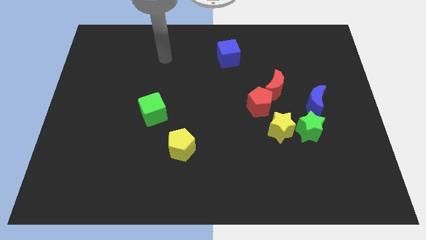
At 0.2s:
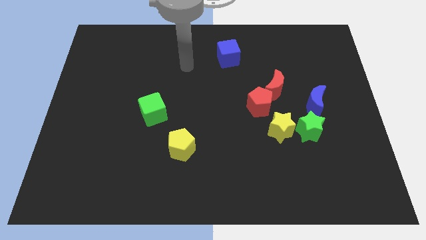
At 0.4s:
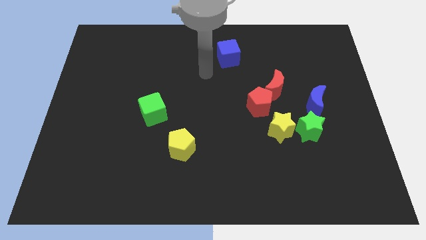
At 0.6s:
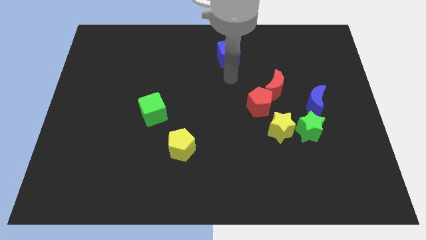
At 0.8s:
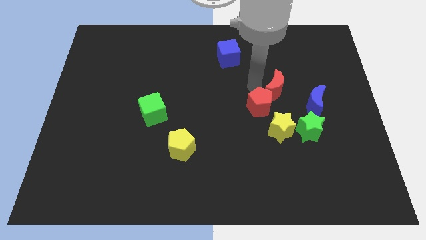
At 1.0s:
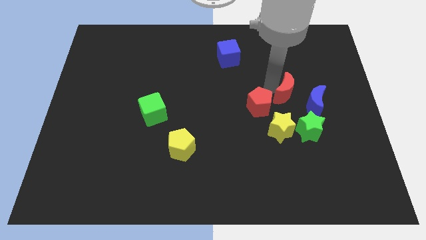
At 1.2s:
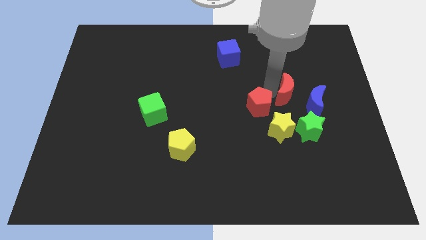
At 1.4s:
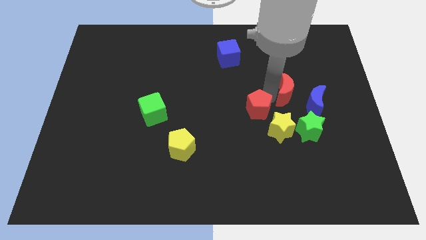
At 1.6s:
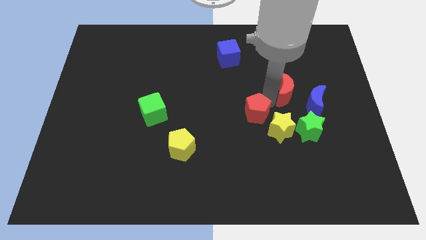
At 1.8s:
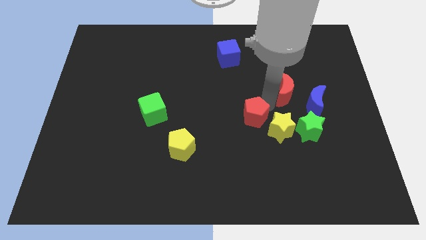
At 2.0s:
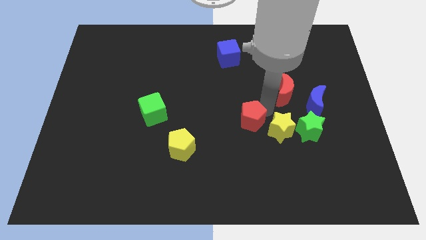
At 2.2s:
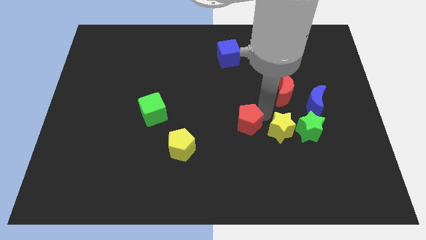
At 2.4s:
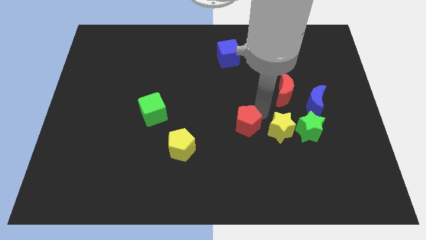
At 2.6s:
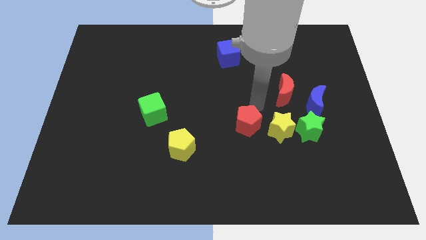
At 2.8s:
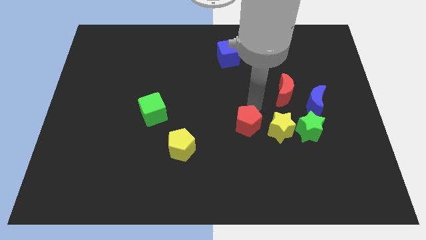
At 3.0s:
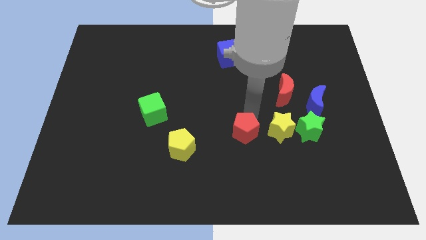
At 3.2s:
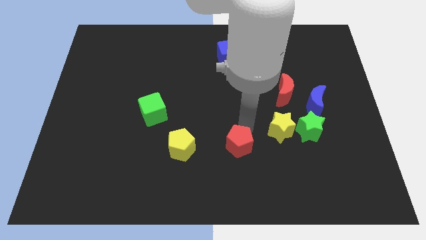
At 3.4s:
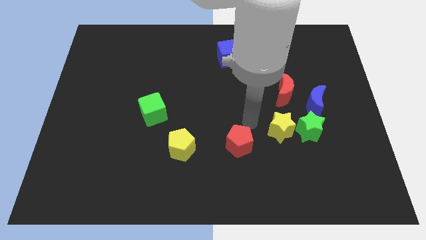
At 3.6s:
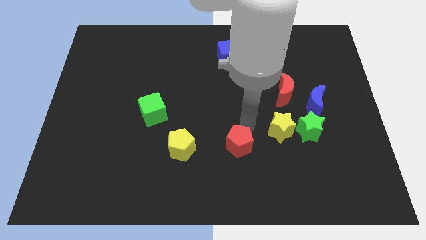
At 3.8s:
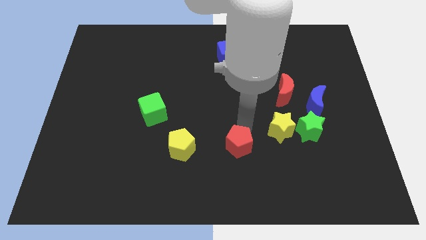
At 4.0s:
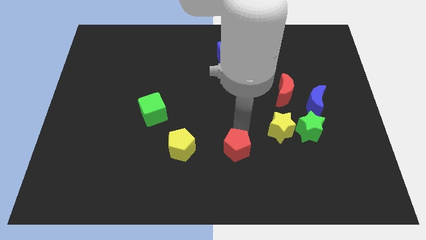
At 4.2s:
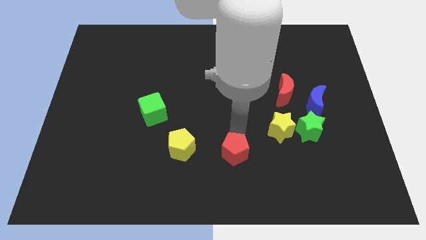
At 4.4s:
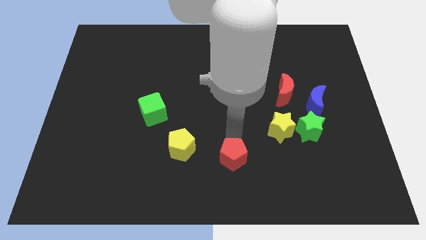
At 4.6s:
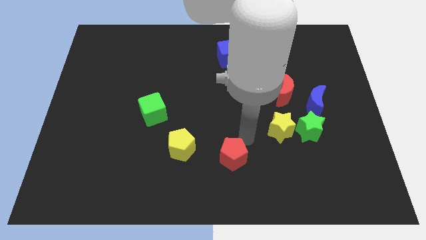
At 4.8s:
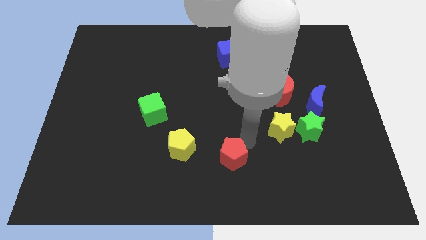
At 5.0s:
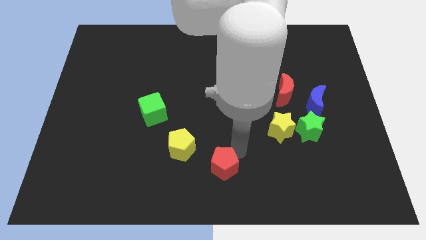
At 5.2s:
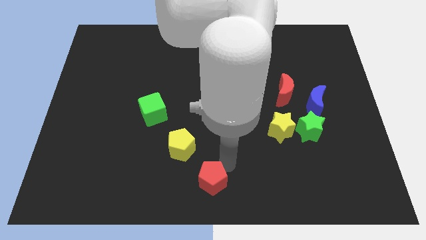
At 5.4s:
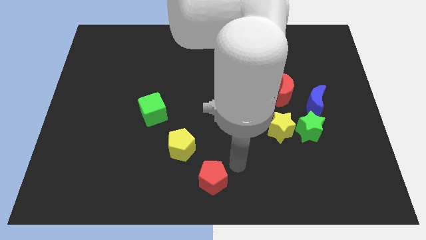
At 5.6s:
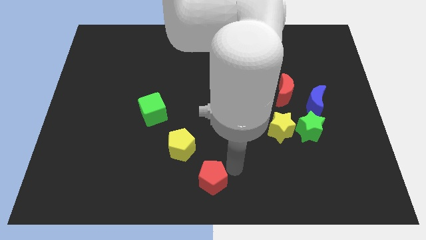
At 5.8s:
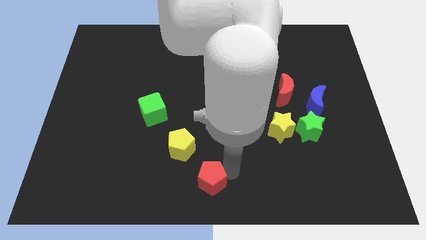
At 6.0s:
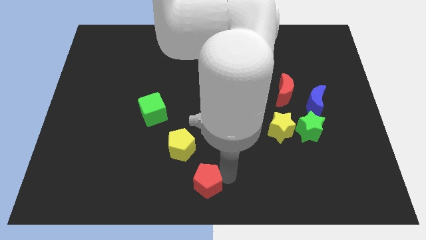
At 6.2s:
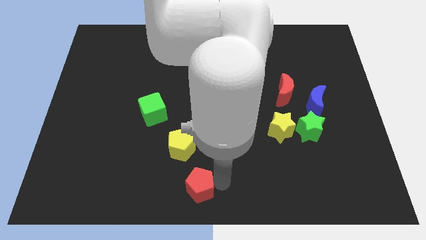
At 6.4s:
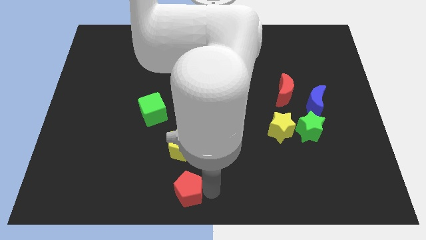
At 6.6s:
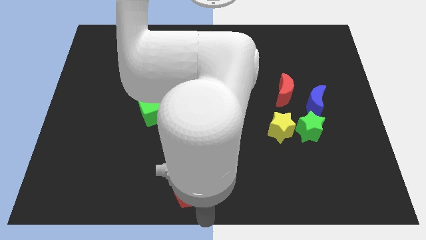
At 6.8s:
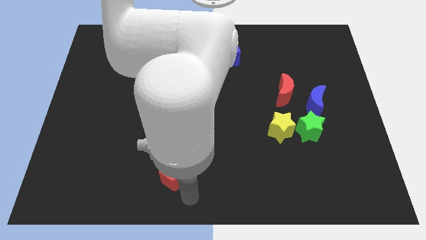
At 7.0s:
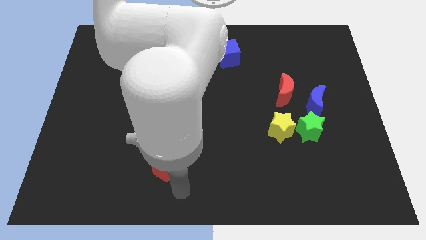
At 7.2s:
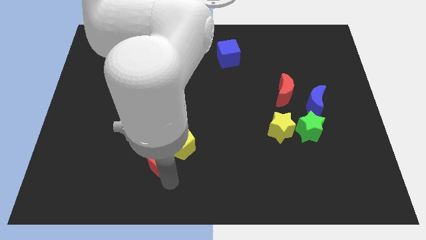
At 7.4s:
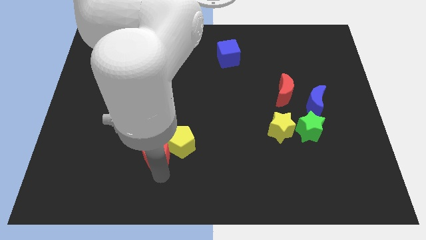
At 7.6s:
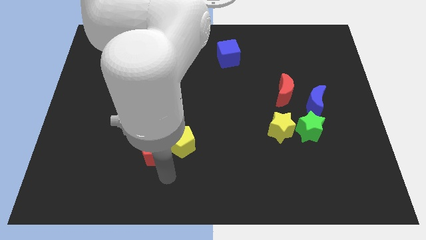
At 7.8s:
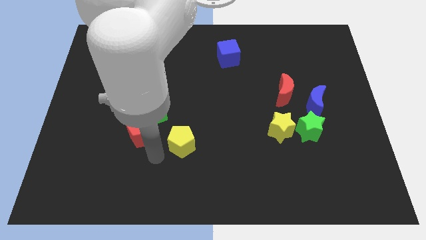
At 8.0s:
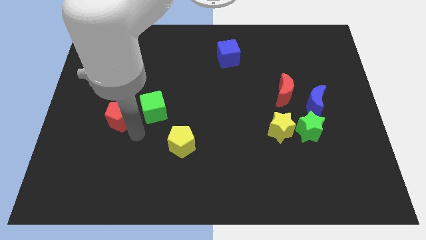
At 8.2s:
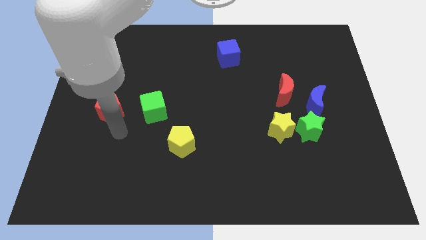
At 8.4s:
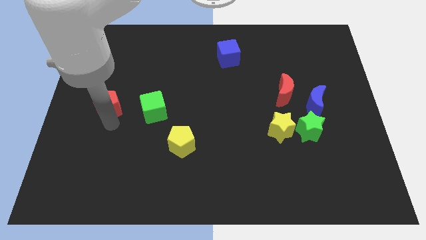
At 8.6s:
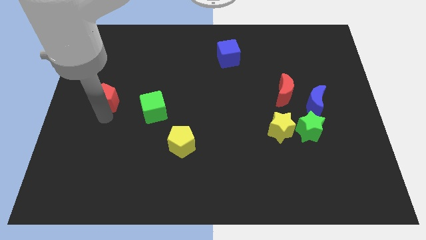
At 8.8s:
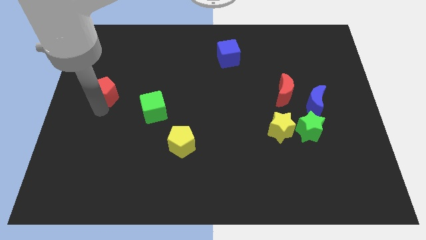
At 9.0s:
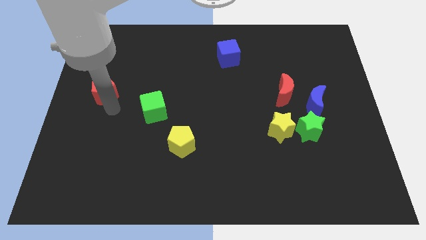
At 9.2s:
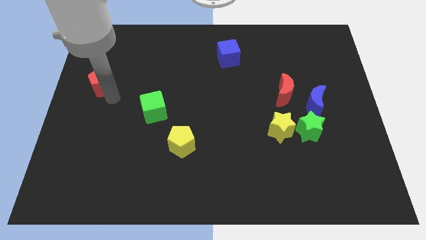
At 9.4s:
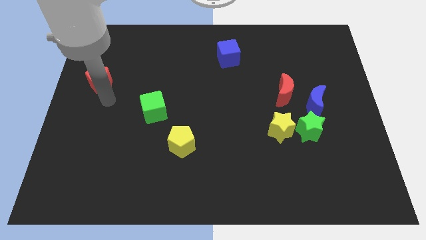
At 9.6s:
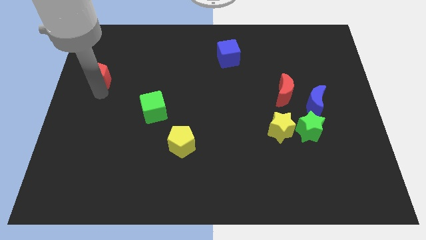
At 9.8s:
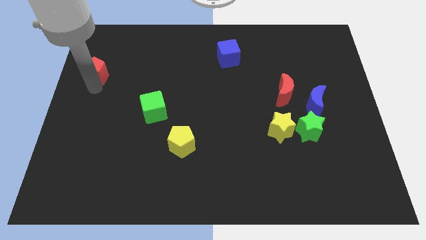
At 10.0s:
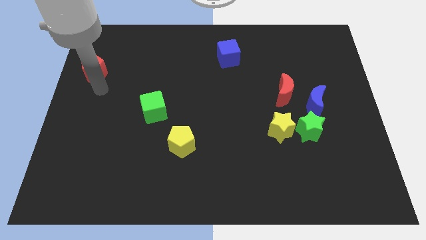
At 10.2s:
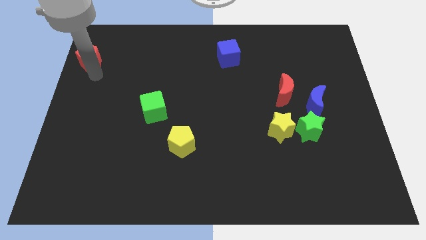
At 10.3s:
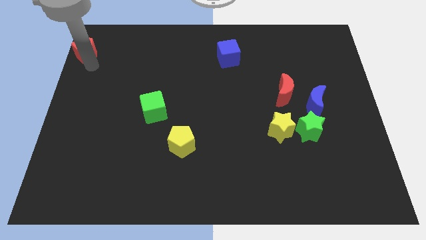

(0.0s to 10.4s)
move the red pentagon to the top left corner

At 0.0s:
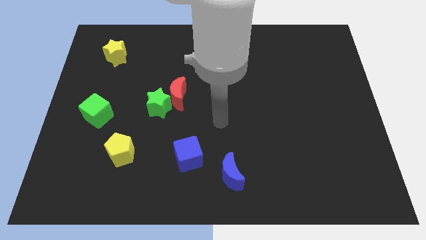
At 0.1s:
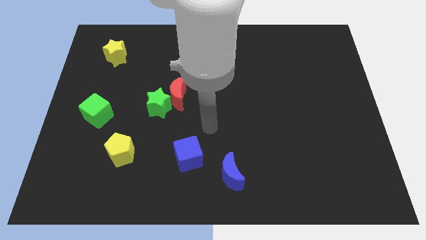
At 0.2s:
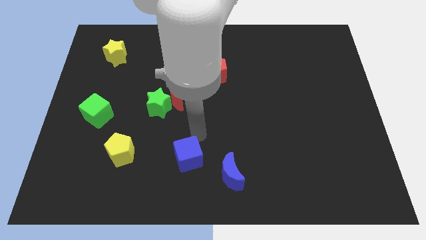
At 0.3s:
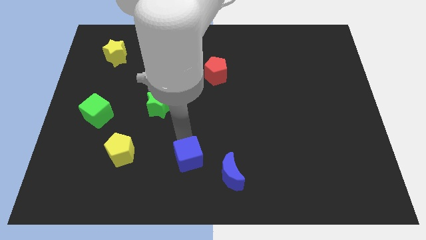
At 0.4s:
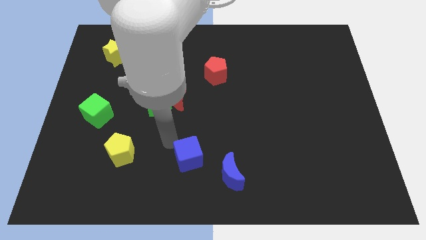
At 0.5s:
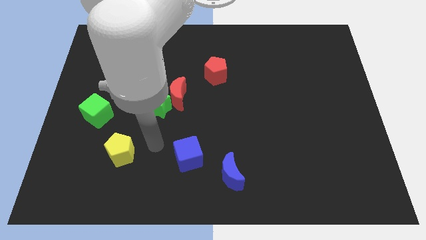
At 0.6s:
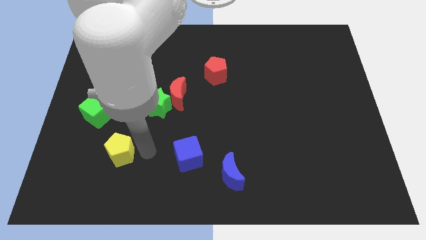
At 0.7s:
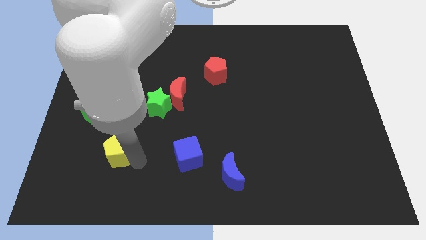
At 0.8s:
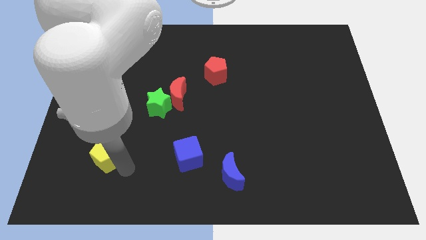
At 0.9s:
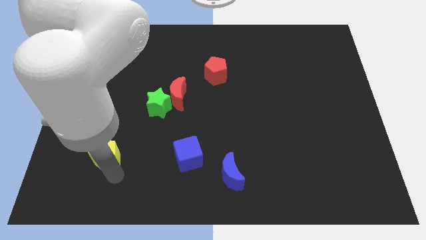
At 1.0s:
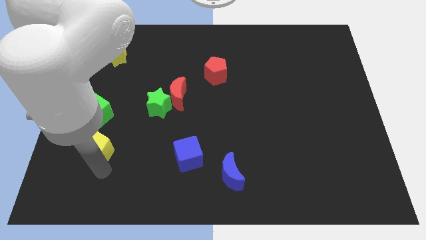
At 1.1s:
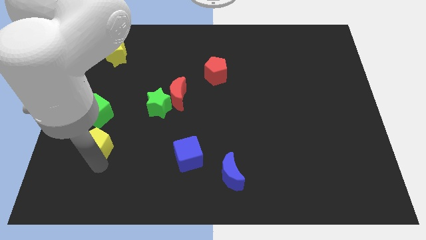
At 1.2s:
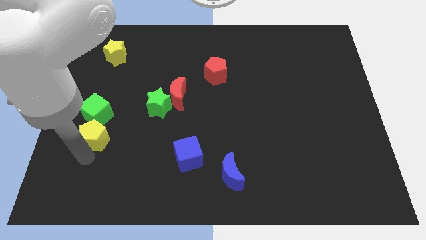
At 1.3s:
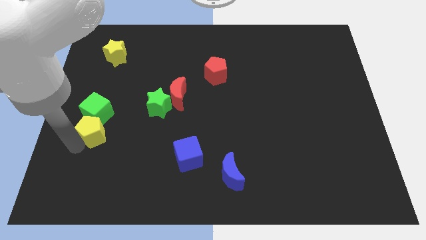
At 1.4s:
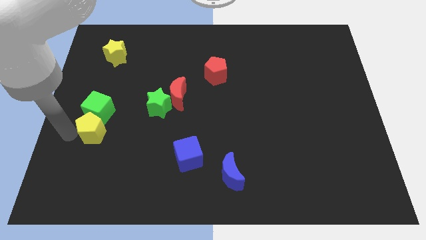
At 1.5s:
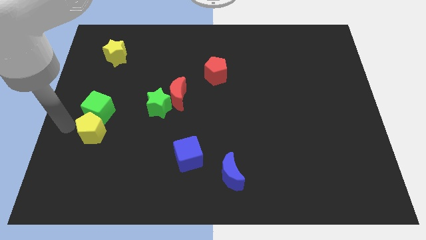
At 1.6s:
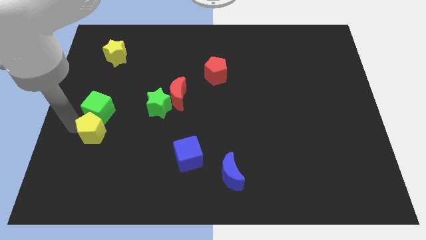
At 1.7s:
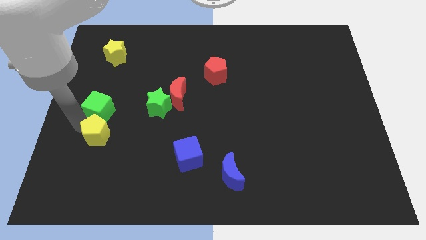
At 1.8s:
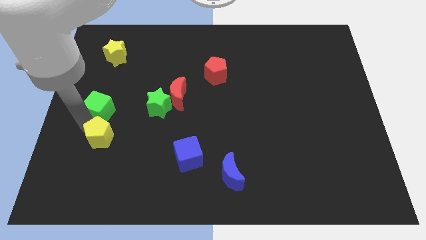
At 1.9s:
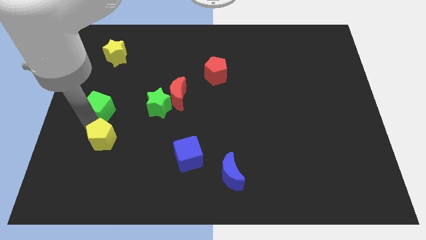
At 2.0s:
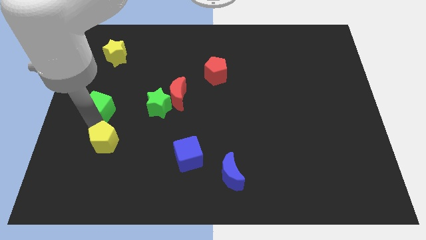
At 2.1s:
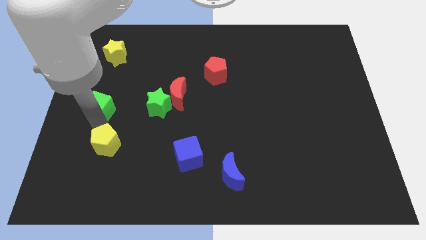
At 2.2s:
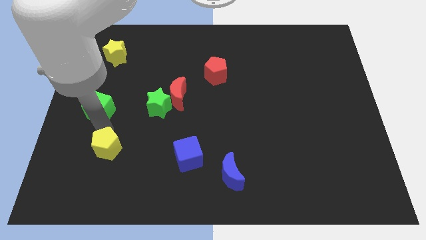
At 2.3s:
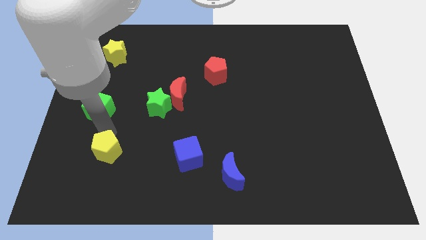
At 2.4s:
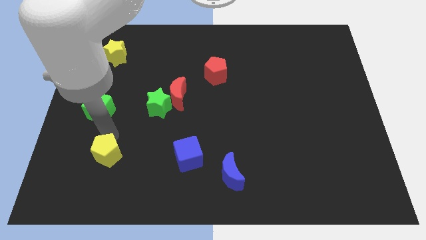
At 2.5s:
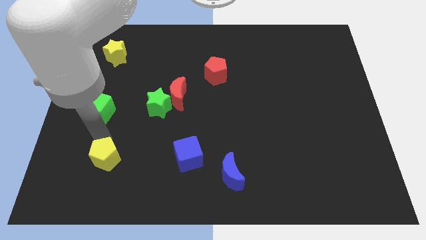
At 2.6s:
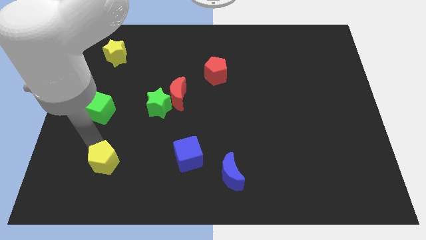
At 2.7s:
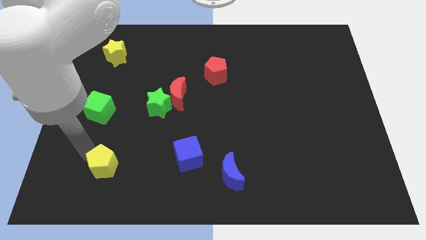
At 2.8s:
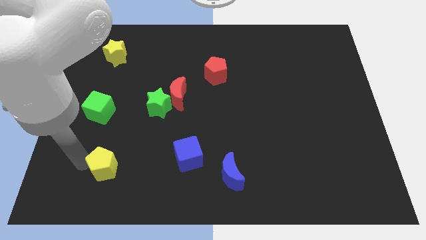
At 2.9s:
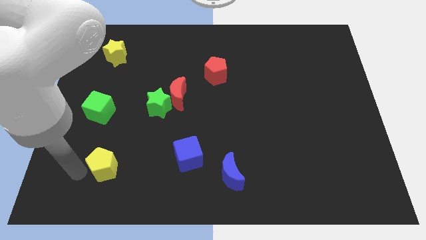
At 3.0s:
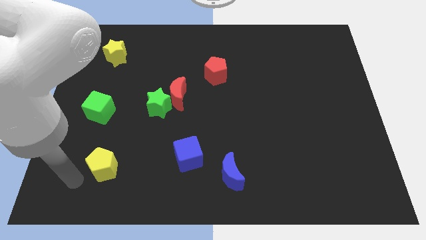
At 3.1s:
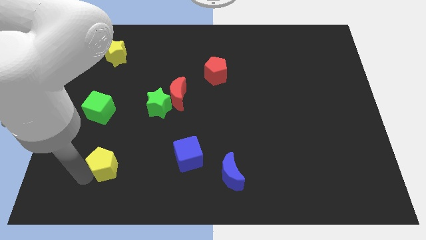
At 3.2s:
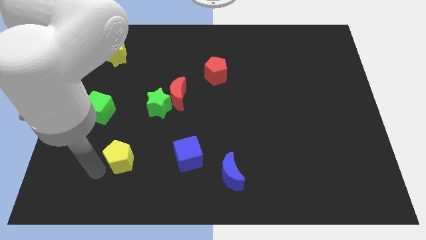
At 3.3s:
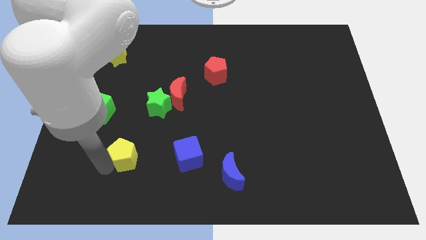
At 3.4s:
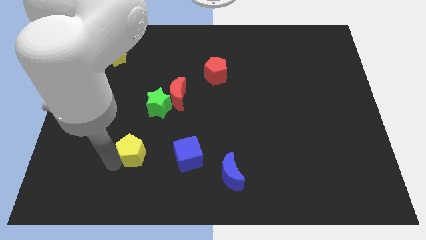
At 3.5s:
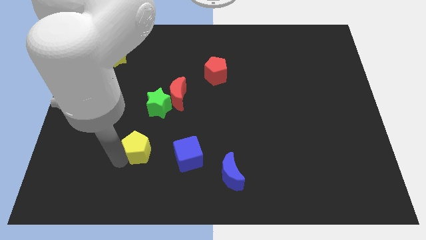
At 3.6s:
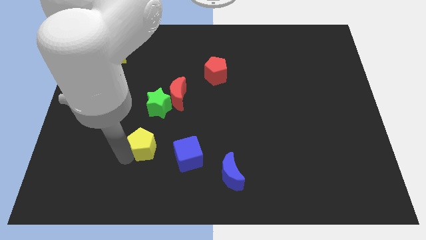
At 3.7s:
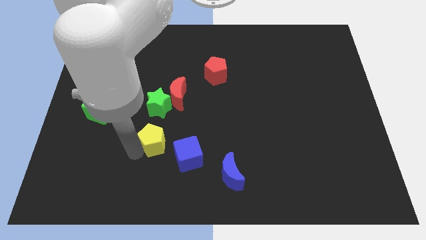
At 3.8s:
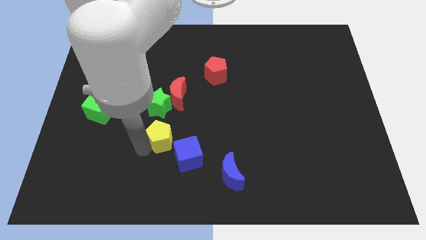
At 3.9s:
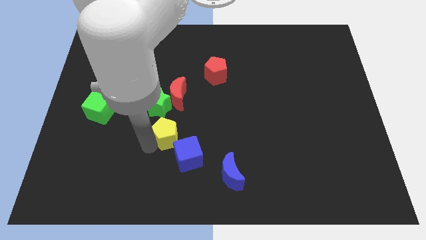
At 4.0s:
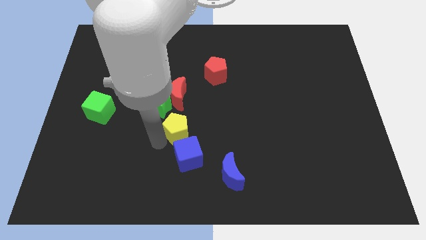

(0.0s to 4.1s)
push the yellow pentagon to the center
